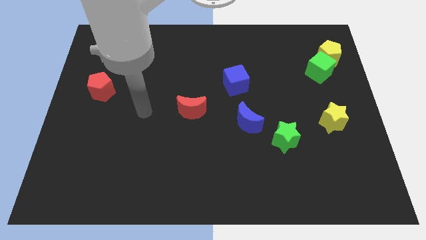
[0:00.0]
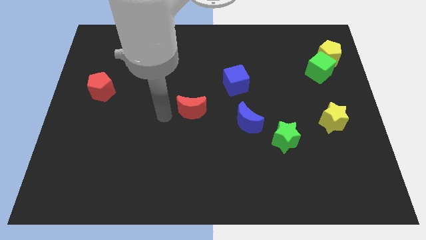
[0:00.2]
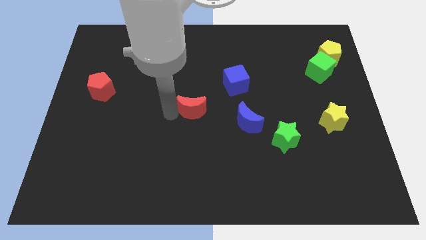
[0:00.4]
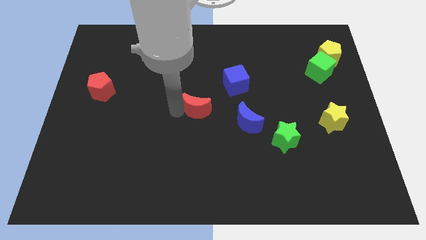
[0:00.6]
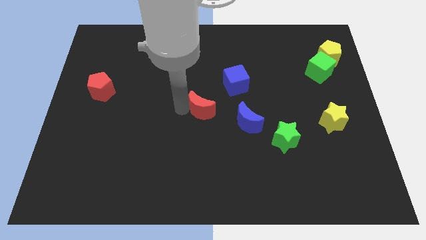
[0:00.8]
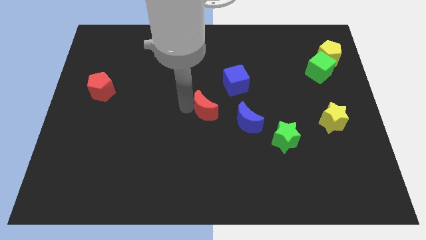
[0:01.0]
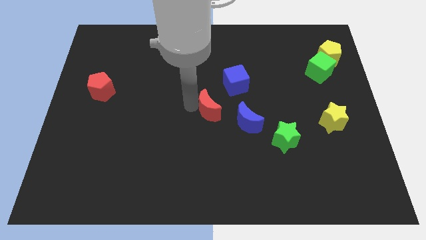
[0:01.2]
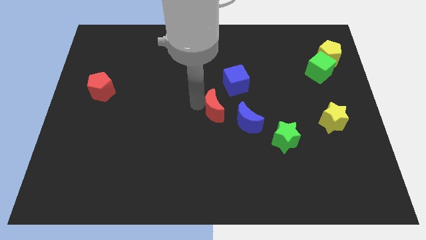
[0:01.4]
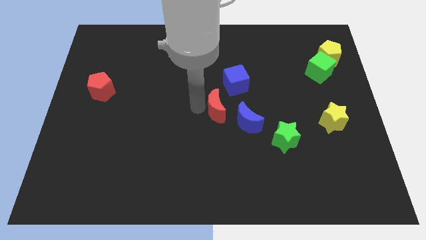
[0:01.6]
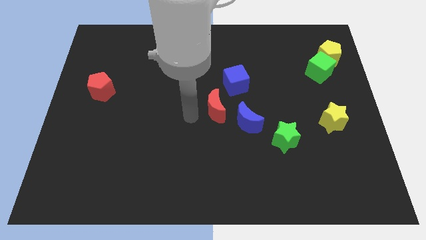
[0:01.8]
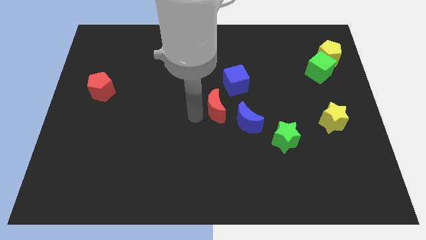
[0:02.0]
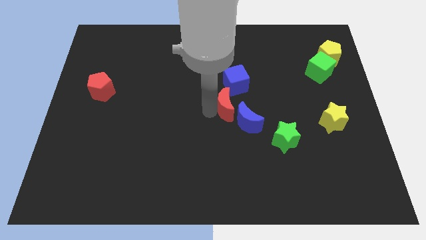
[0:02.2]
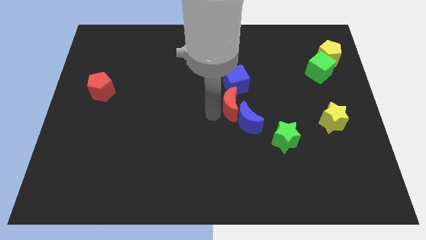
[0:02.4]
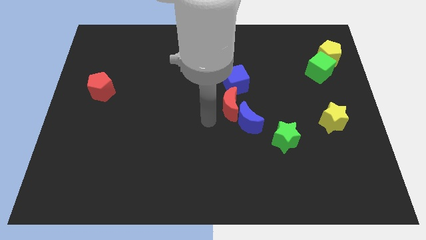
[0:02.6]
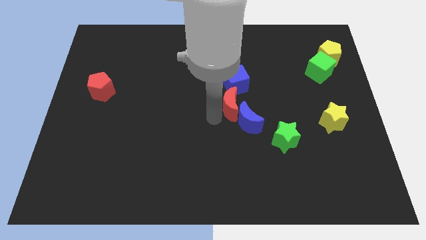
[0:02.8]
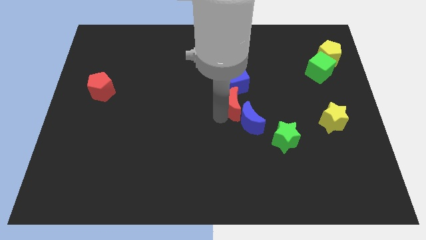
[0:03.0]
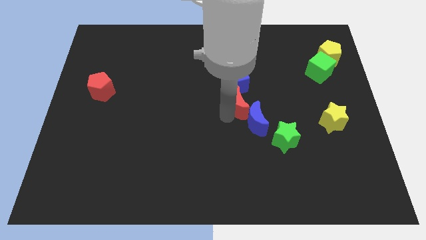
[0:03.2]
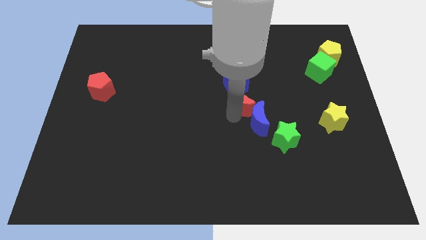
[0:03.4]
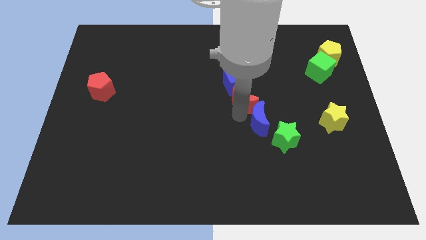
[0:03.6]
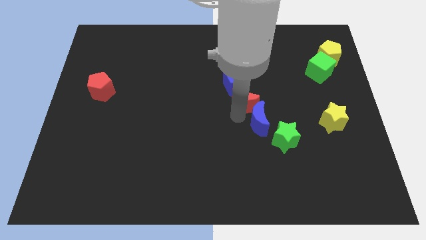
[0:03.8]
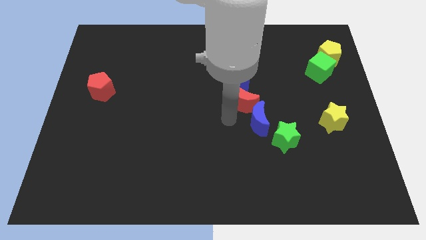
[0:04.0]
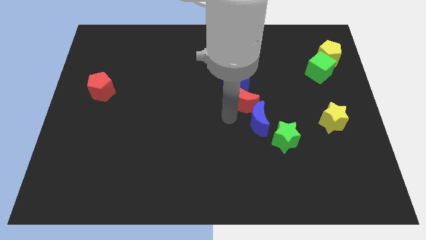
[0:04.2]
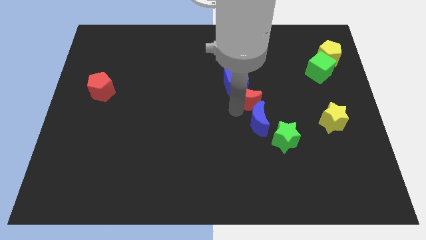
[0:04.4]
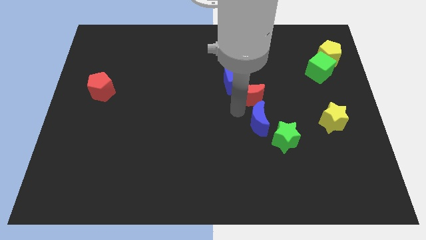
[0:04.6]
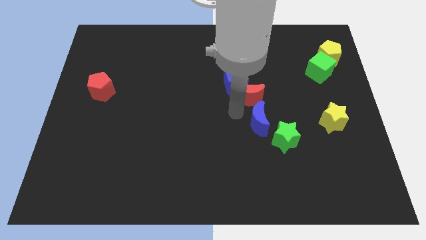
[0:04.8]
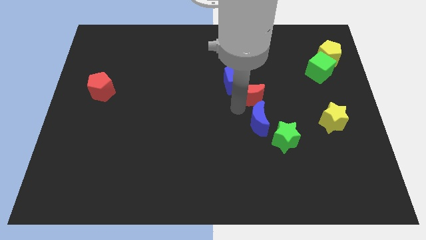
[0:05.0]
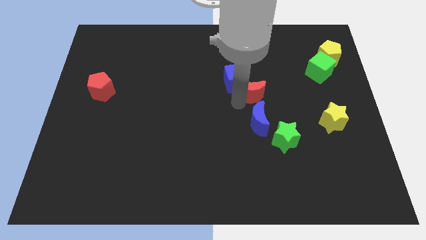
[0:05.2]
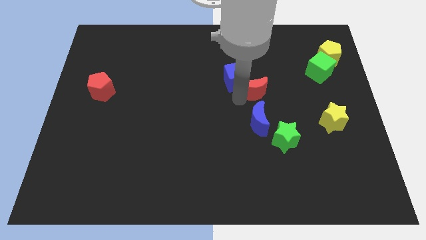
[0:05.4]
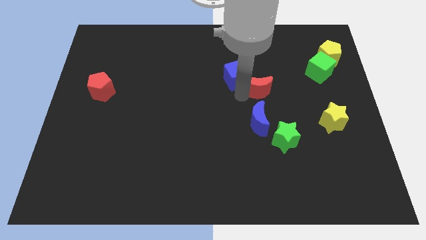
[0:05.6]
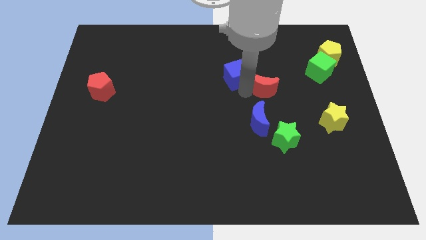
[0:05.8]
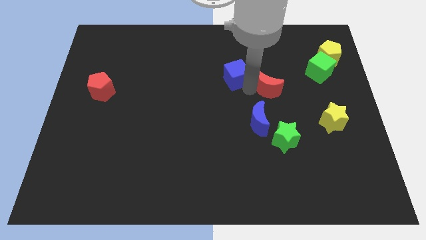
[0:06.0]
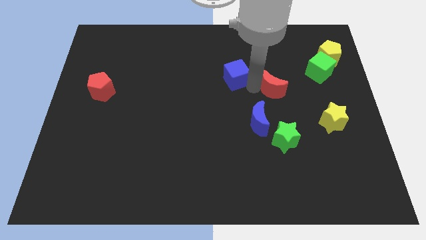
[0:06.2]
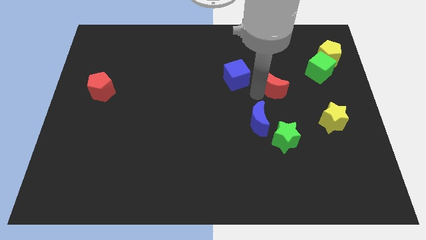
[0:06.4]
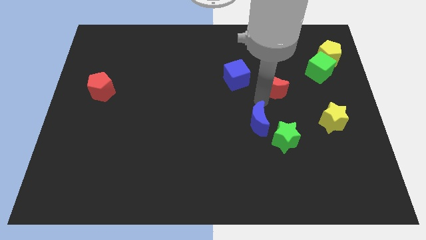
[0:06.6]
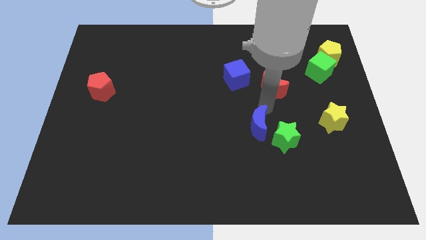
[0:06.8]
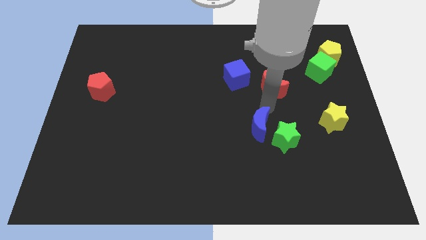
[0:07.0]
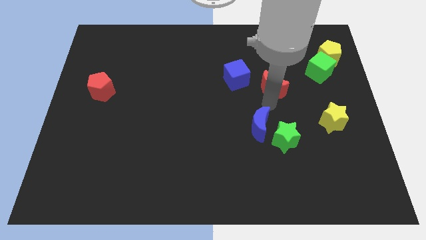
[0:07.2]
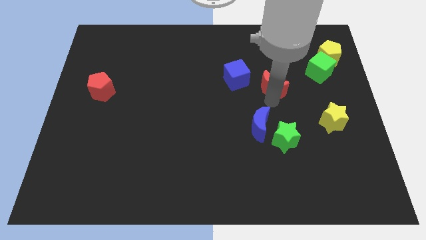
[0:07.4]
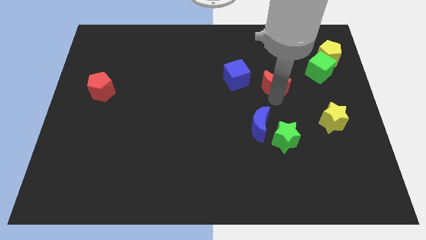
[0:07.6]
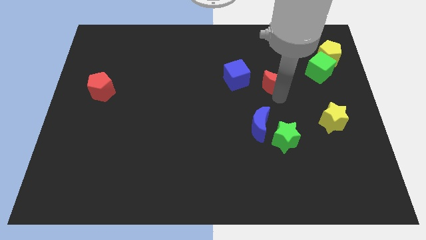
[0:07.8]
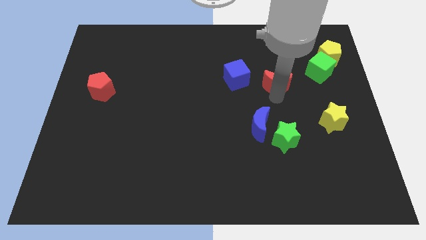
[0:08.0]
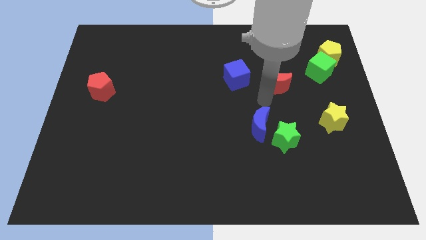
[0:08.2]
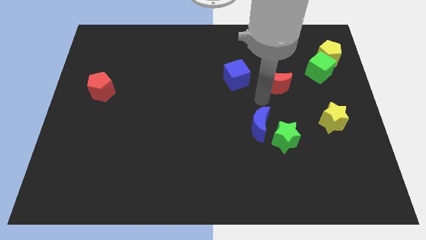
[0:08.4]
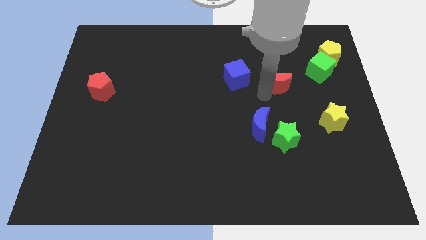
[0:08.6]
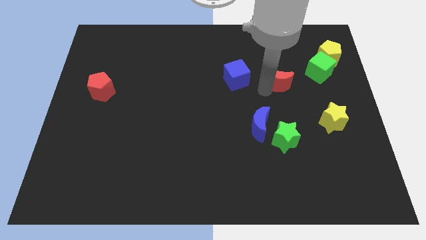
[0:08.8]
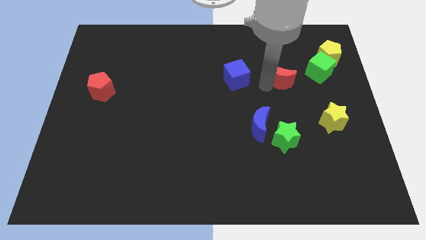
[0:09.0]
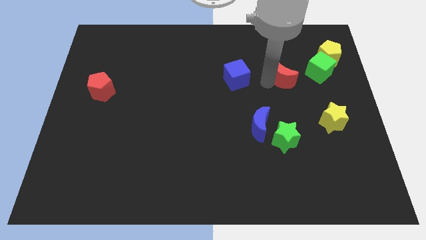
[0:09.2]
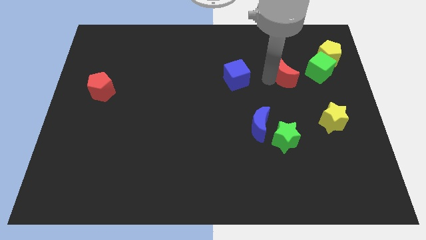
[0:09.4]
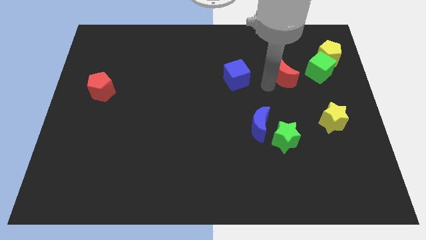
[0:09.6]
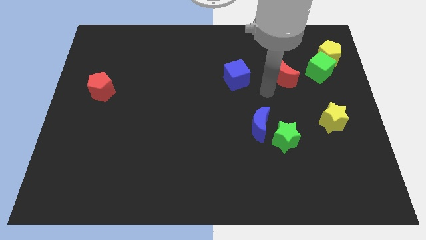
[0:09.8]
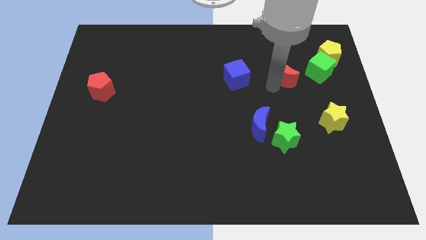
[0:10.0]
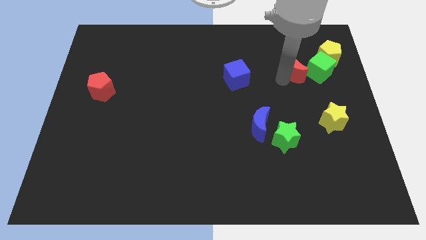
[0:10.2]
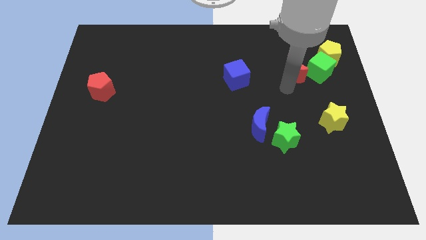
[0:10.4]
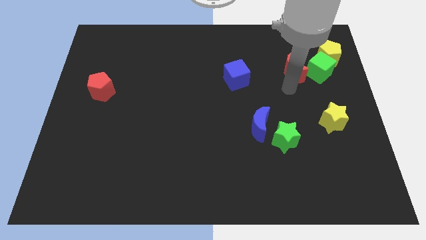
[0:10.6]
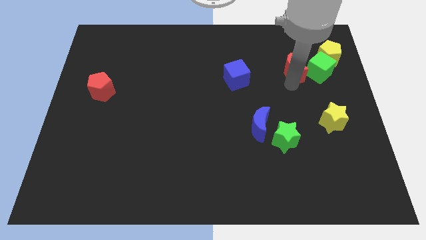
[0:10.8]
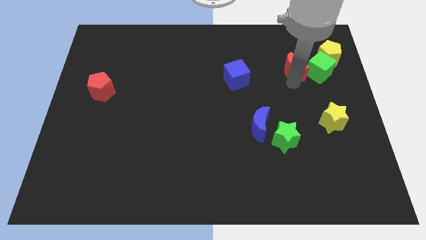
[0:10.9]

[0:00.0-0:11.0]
slide the red moon diagonally up and to the left of the green cube

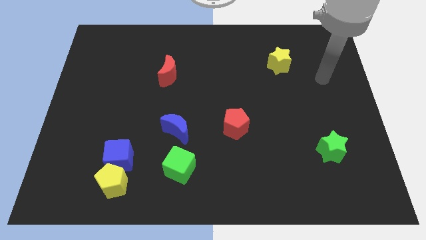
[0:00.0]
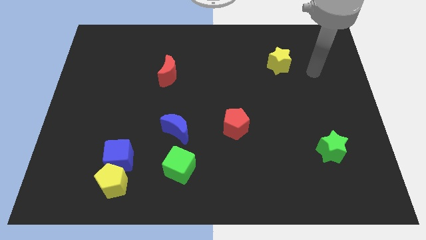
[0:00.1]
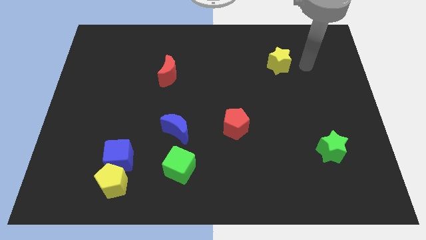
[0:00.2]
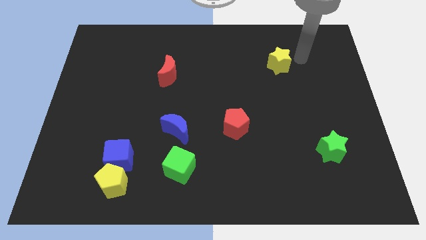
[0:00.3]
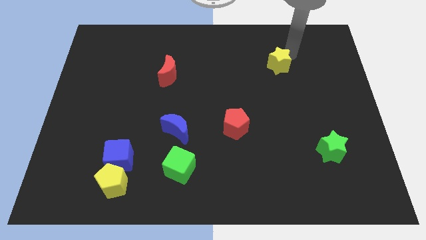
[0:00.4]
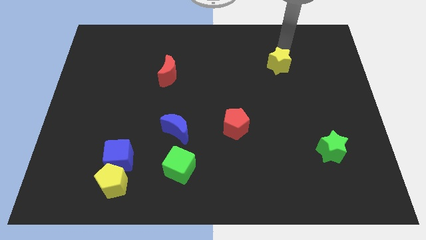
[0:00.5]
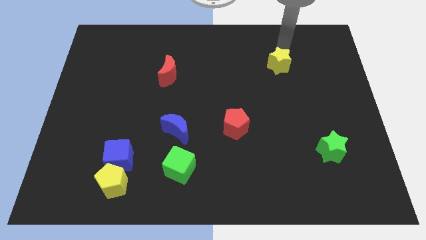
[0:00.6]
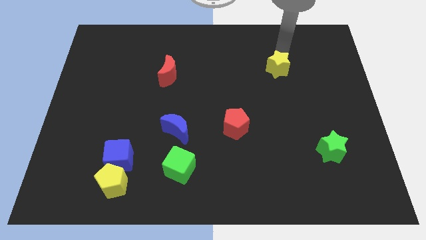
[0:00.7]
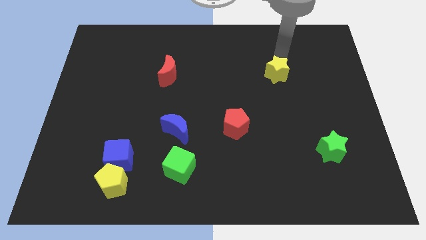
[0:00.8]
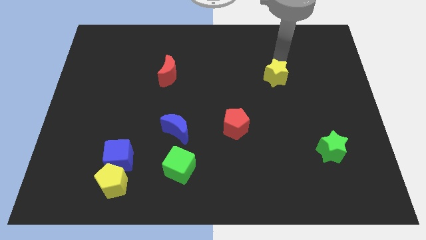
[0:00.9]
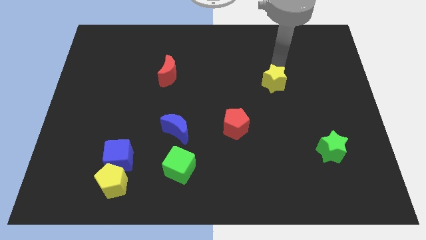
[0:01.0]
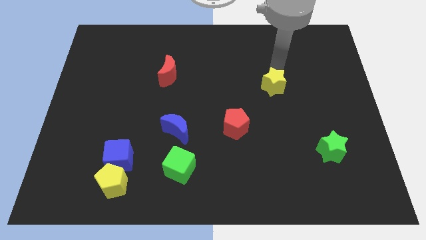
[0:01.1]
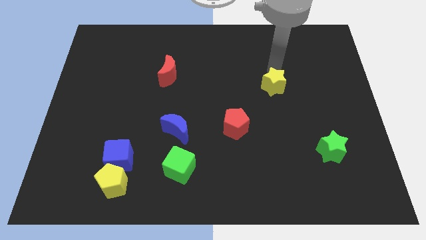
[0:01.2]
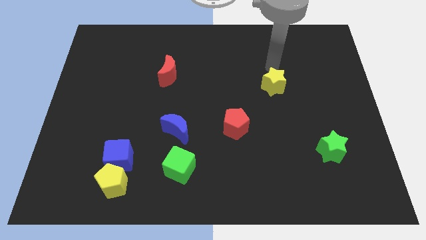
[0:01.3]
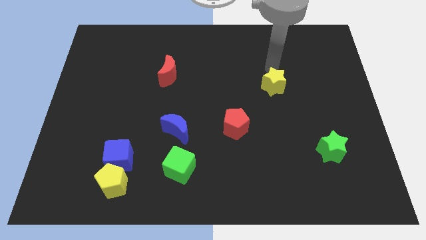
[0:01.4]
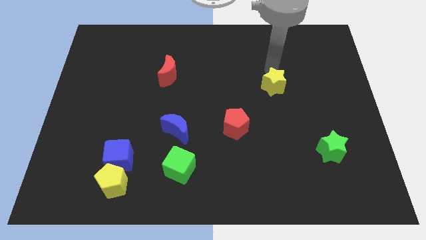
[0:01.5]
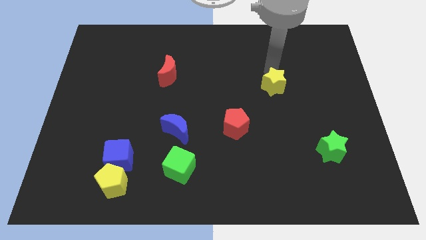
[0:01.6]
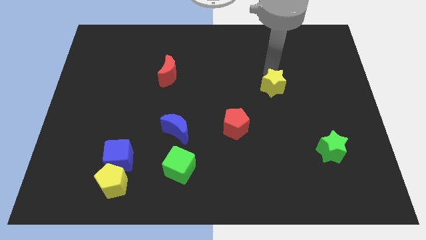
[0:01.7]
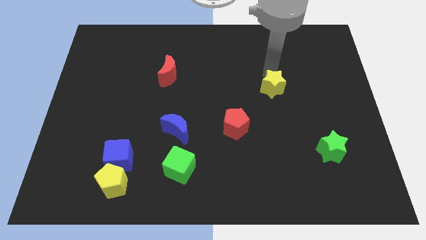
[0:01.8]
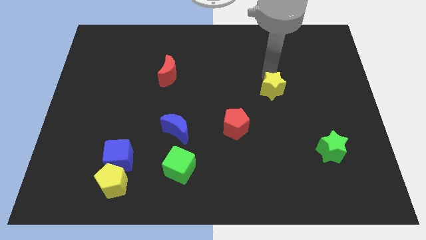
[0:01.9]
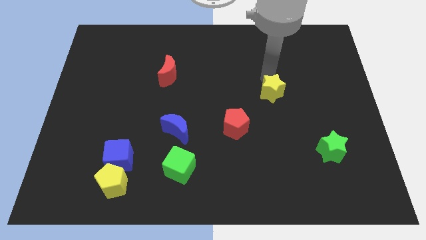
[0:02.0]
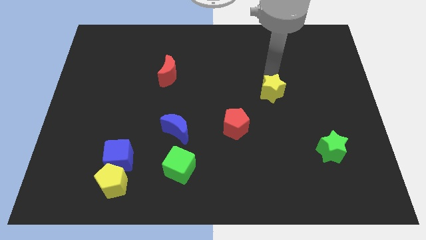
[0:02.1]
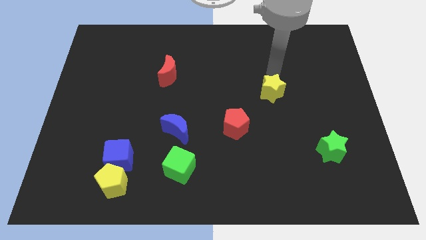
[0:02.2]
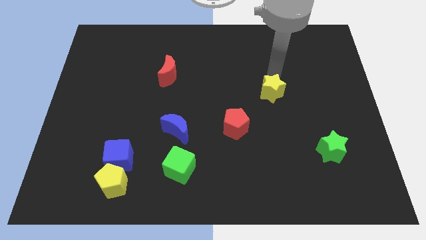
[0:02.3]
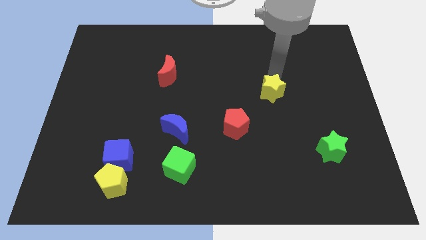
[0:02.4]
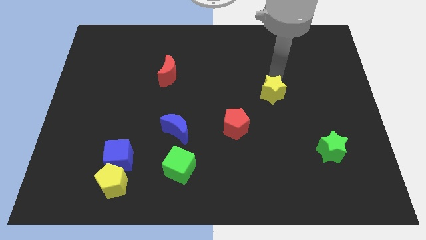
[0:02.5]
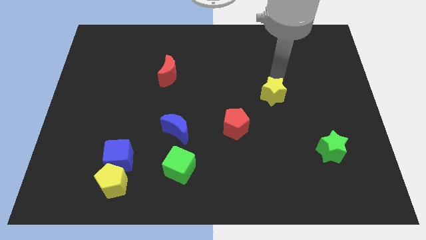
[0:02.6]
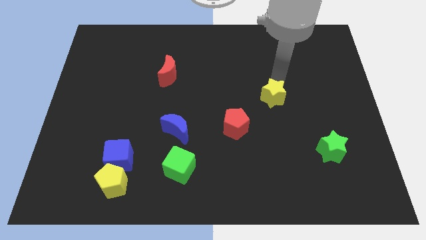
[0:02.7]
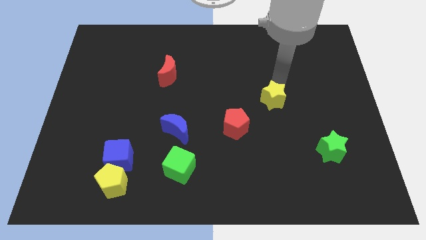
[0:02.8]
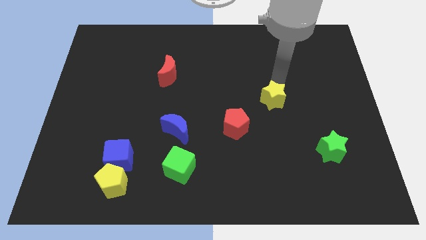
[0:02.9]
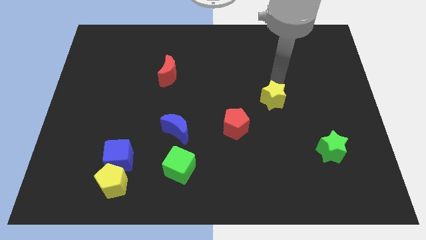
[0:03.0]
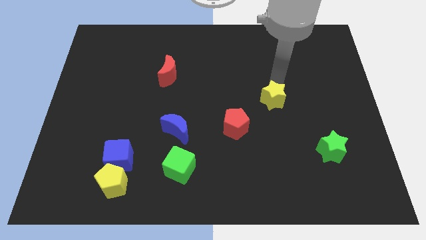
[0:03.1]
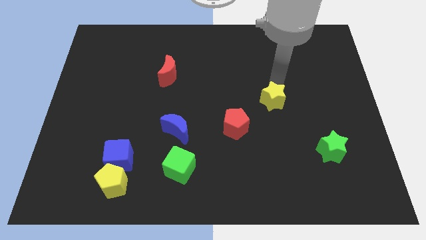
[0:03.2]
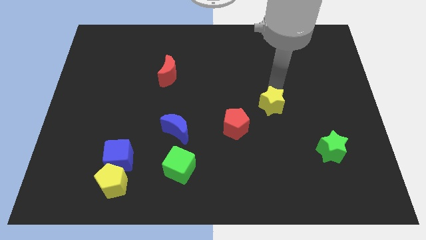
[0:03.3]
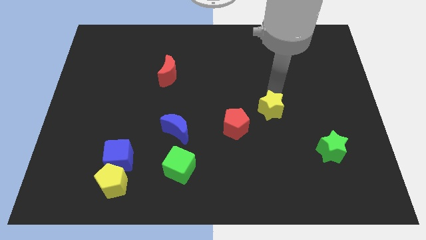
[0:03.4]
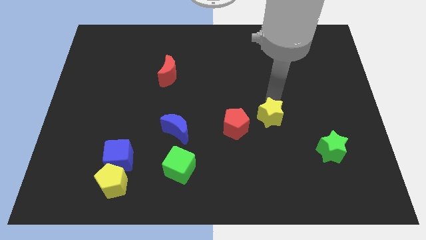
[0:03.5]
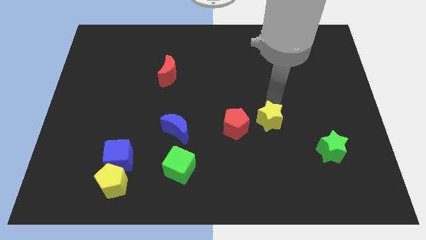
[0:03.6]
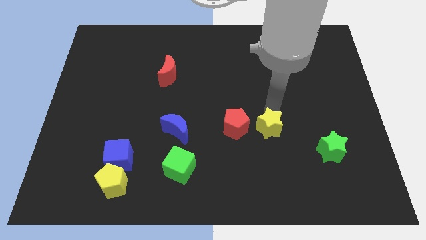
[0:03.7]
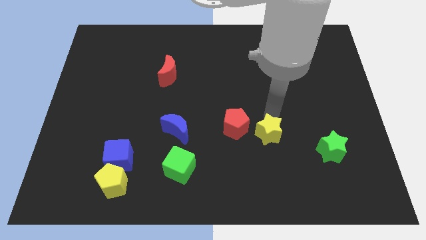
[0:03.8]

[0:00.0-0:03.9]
push the yellow star diagonally down and to the right of the red pentagon
